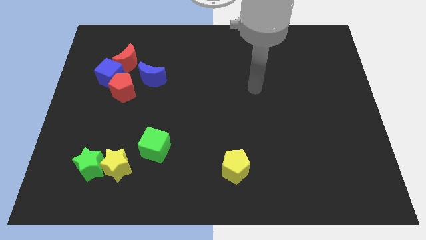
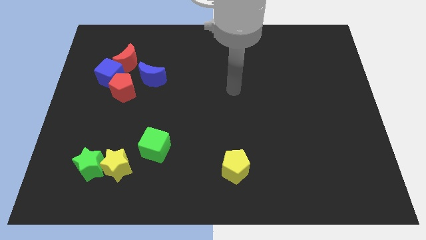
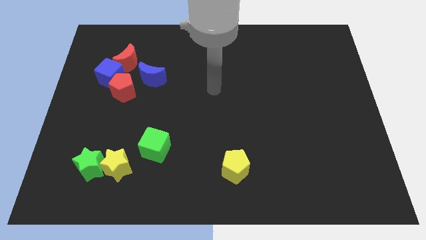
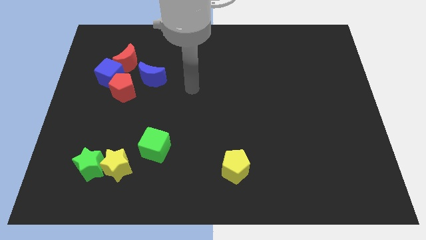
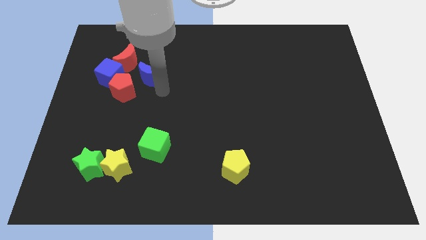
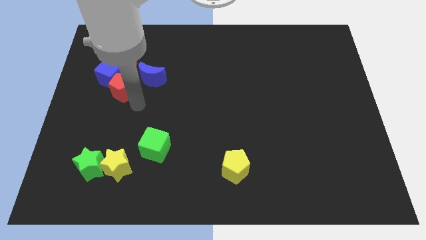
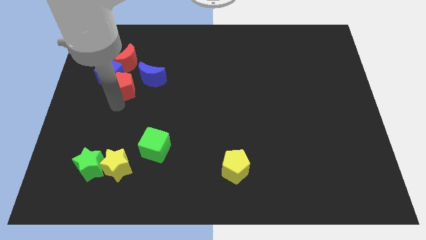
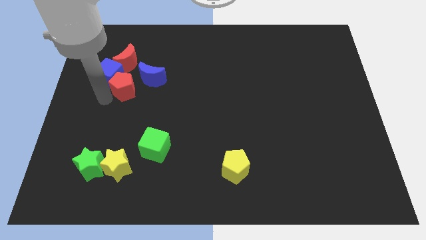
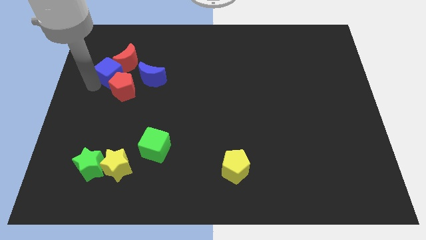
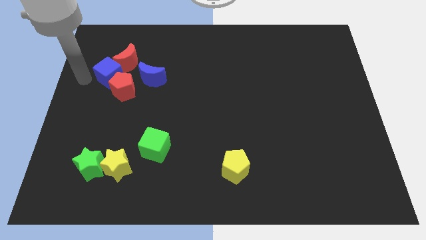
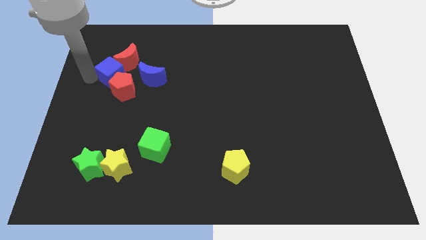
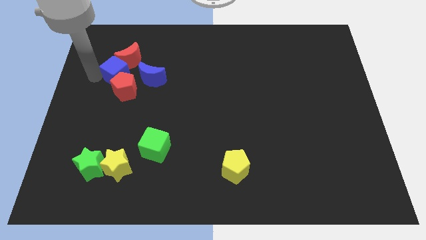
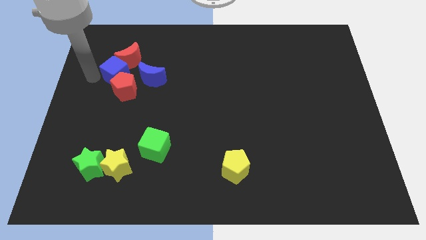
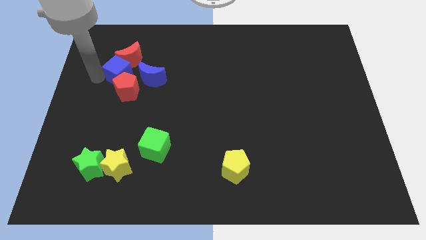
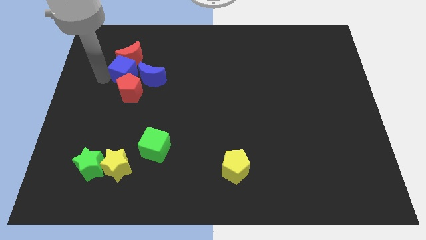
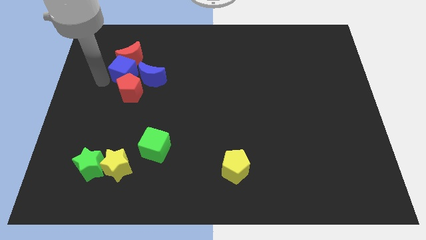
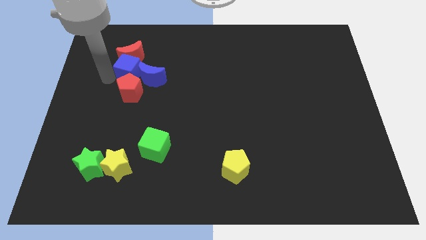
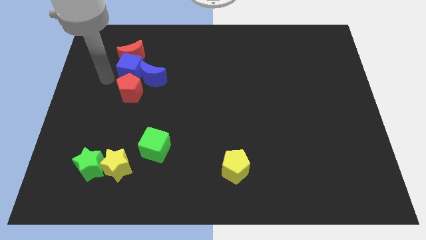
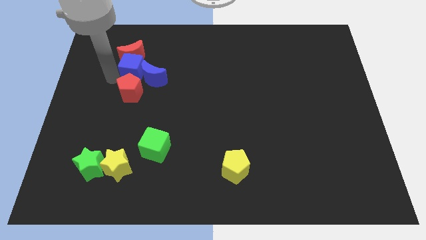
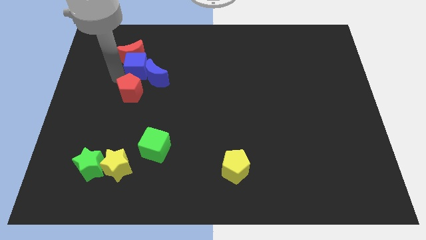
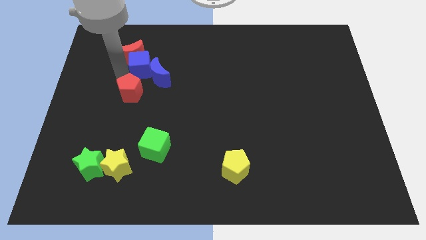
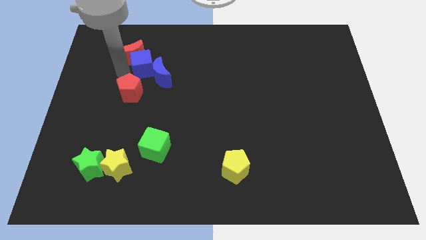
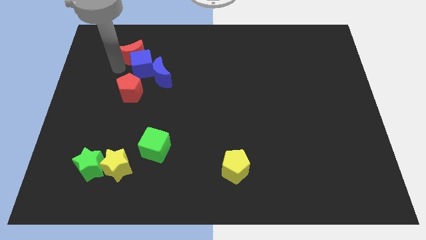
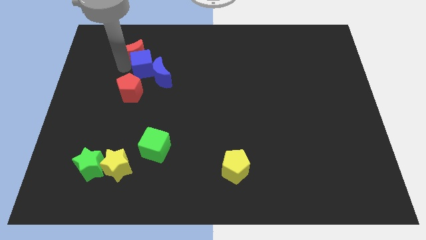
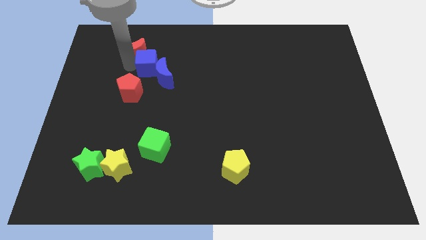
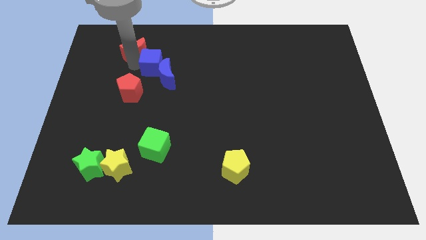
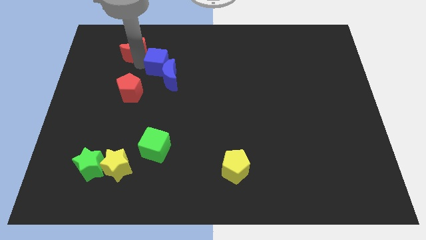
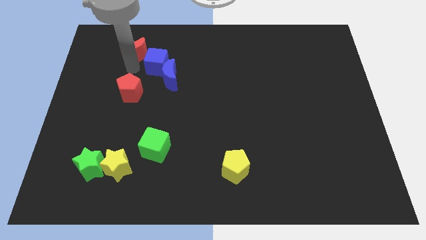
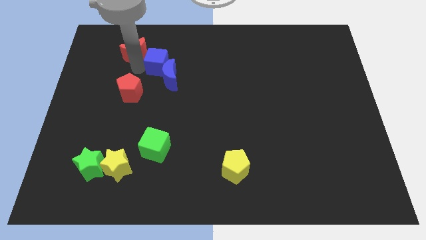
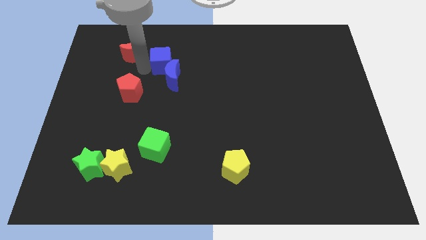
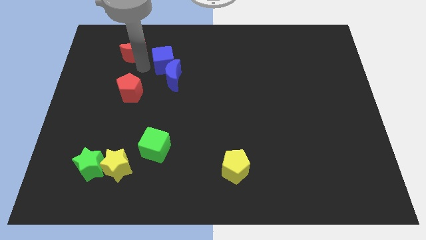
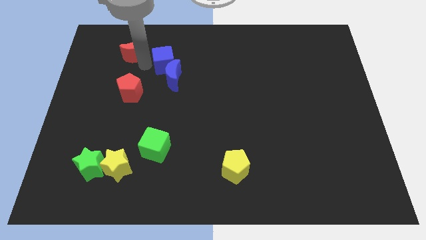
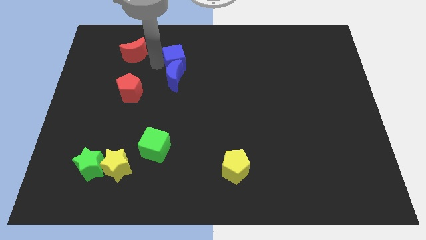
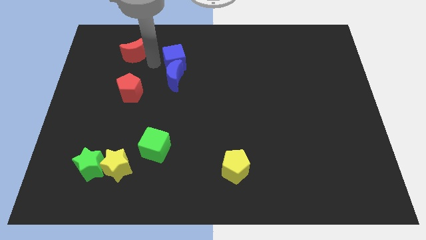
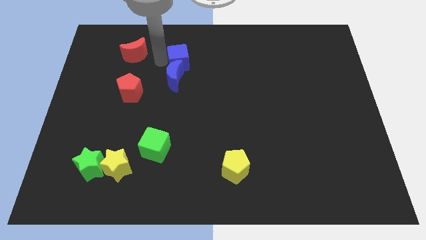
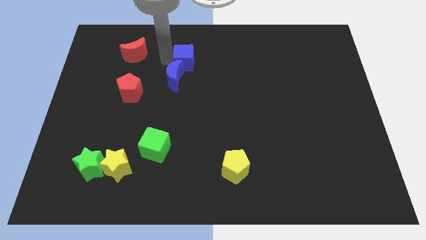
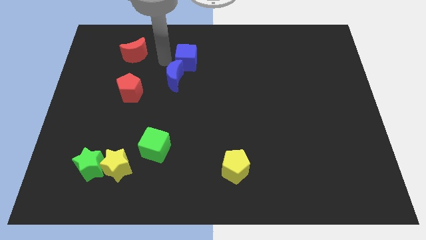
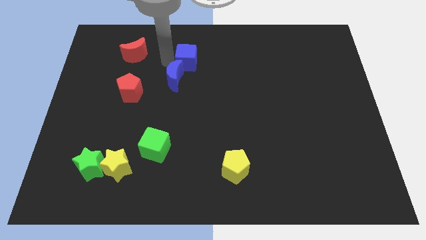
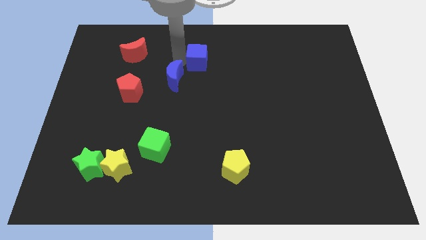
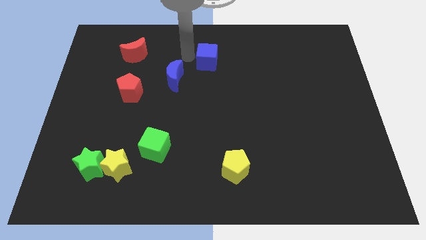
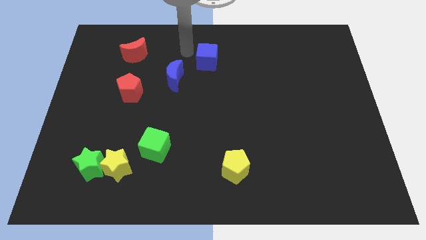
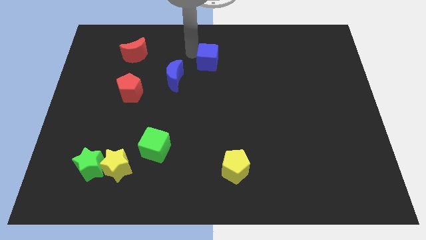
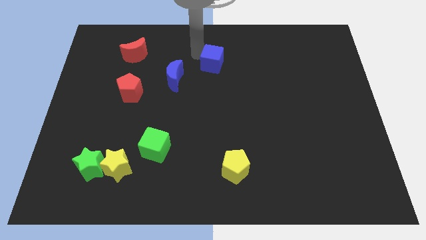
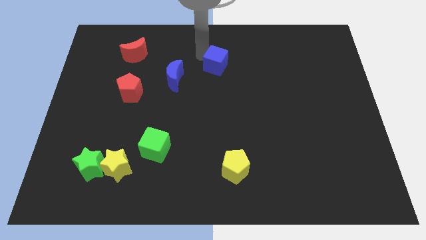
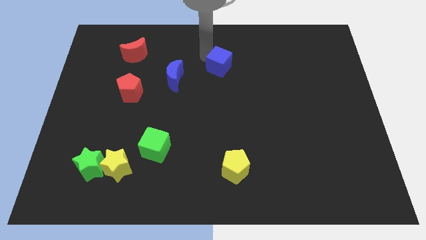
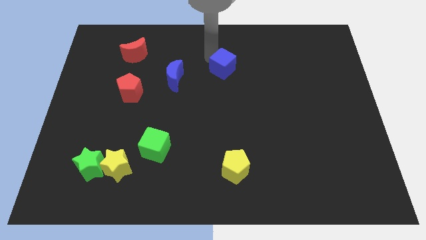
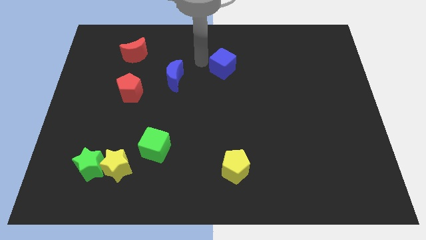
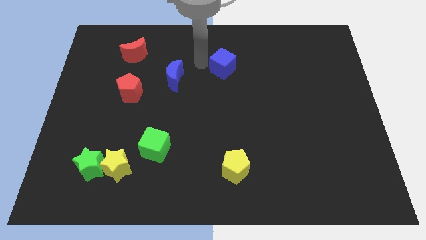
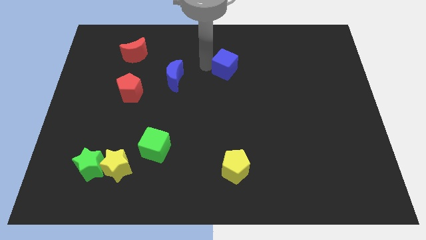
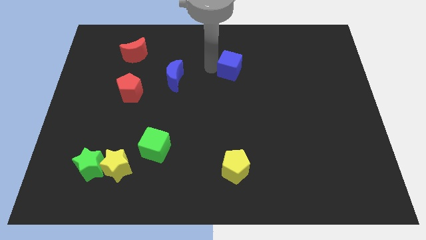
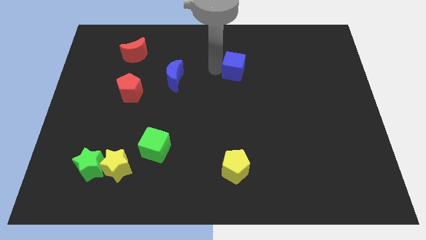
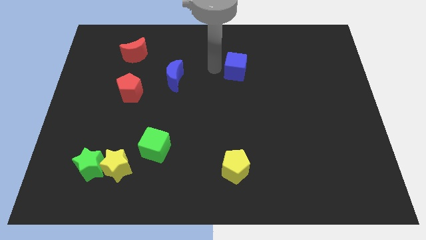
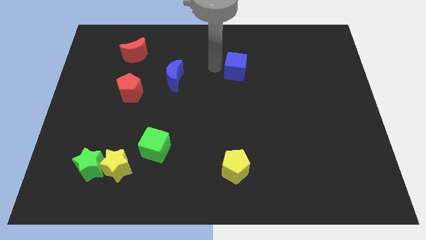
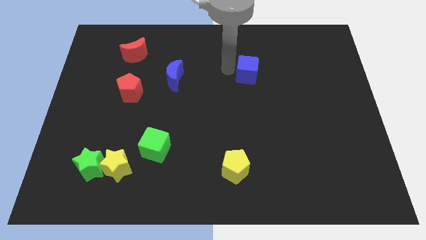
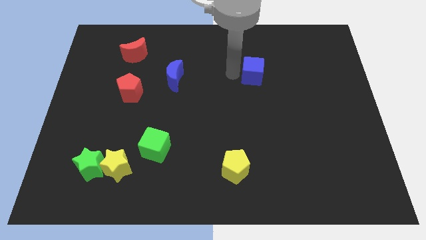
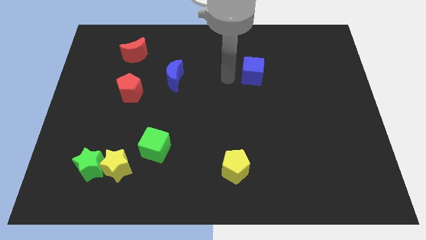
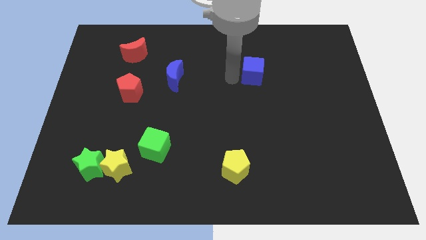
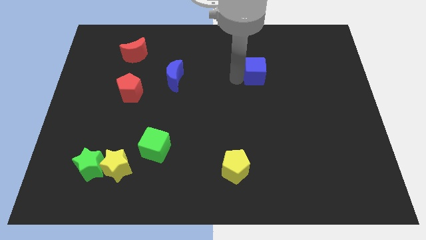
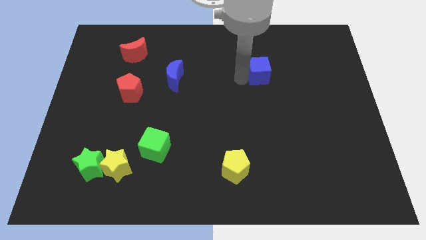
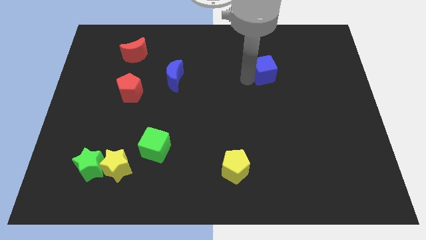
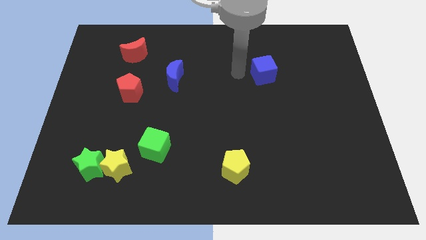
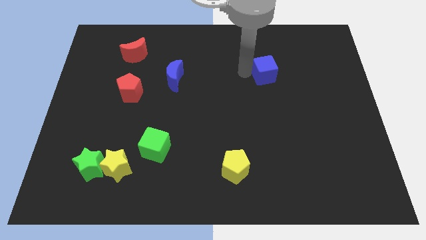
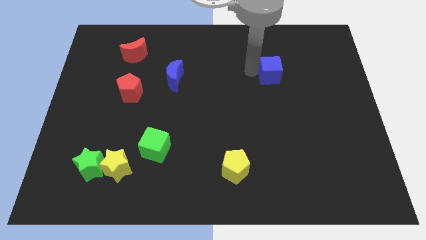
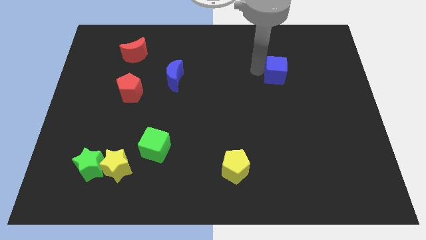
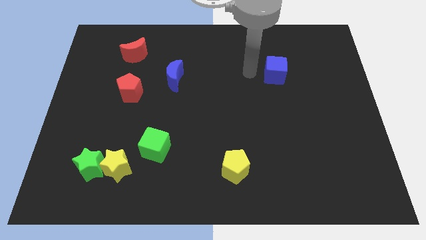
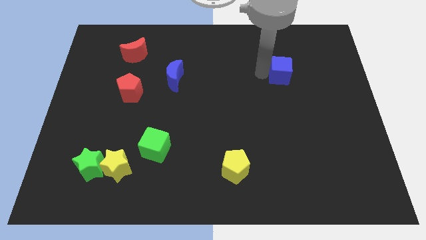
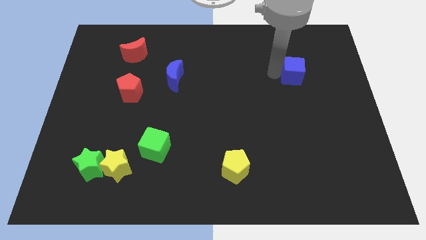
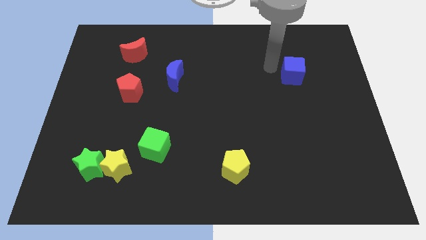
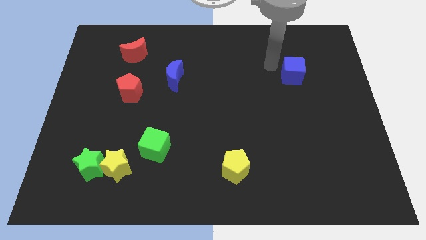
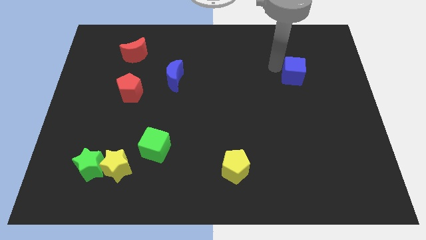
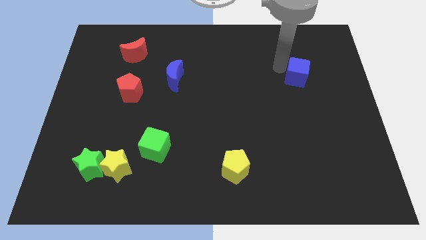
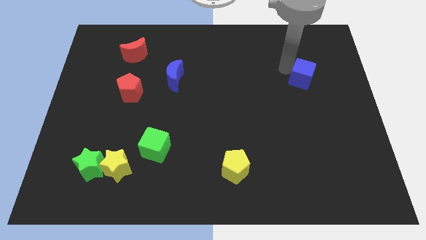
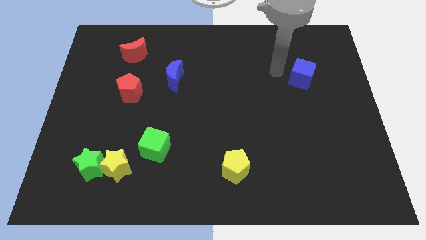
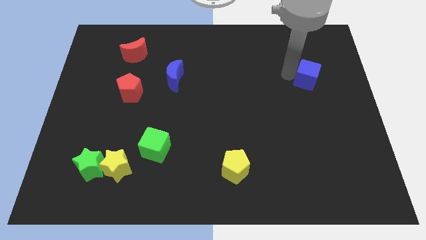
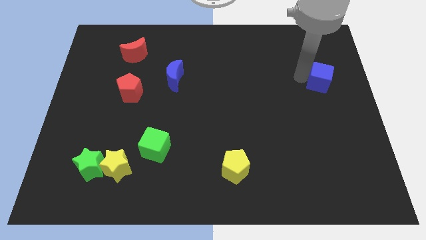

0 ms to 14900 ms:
push the blue cube to the right side of the board
